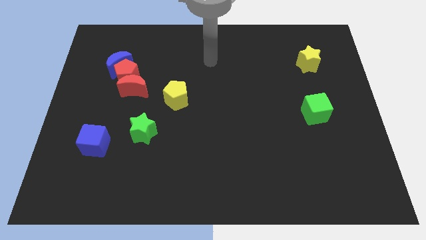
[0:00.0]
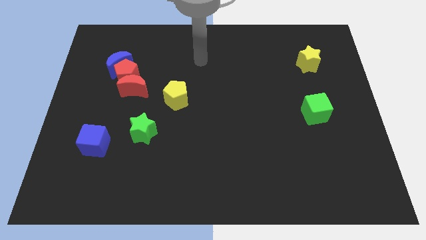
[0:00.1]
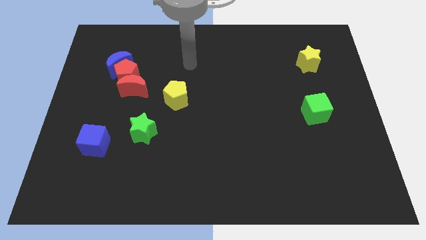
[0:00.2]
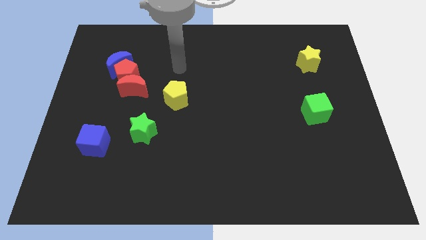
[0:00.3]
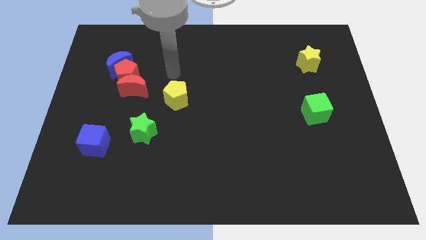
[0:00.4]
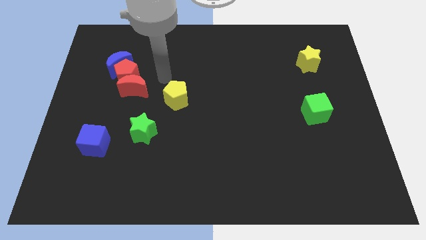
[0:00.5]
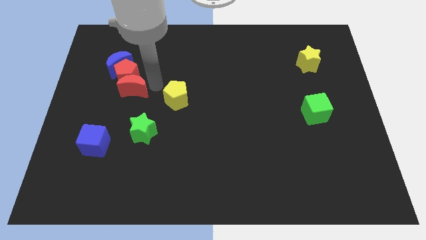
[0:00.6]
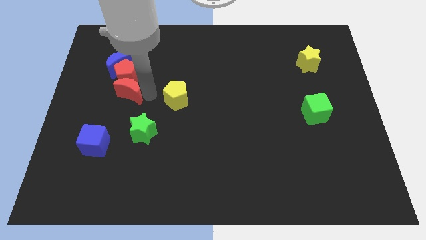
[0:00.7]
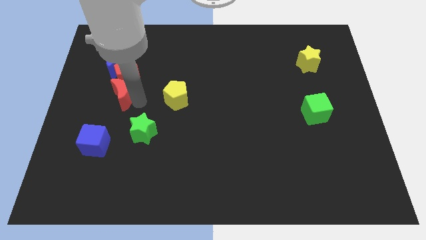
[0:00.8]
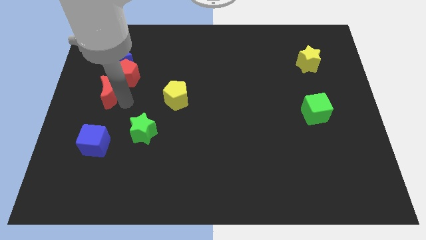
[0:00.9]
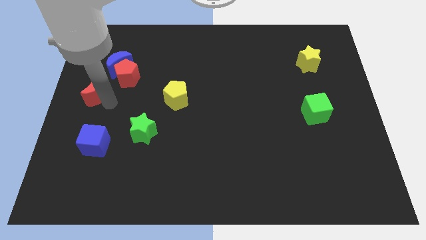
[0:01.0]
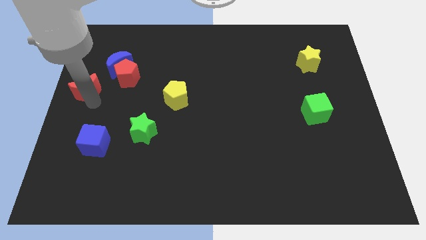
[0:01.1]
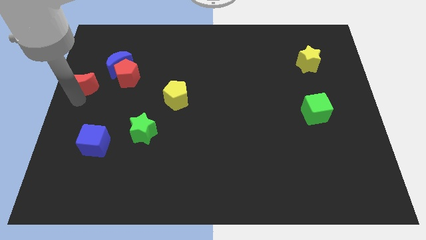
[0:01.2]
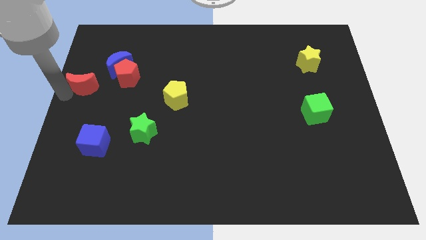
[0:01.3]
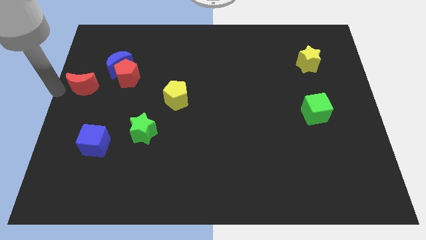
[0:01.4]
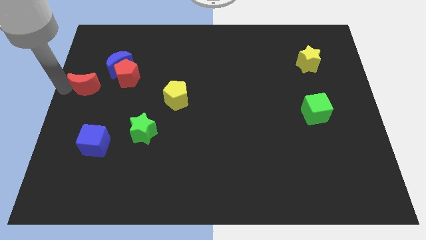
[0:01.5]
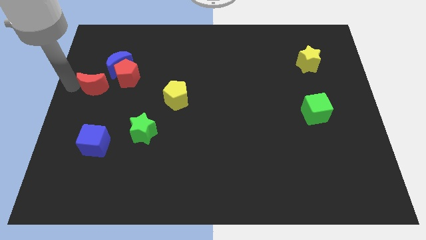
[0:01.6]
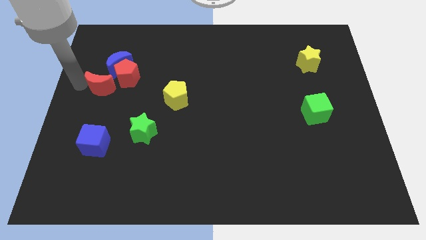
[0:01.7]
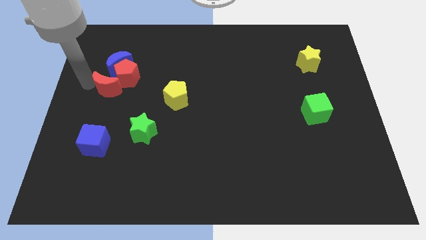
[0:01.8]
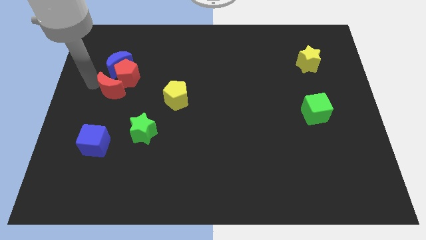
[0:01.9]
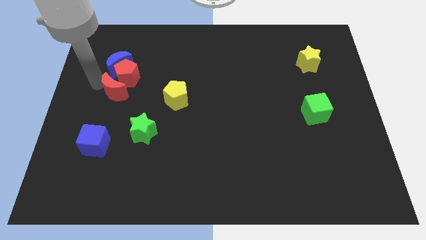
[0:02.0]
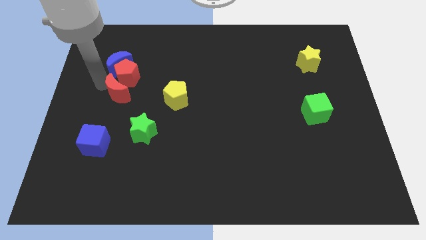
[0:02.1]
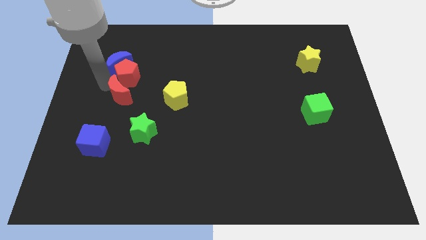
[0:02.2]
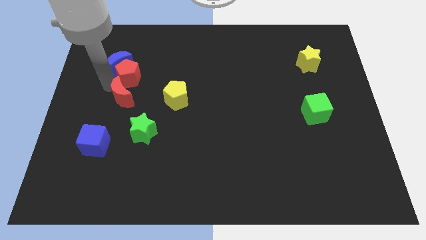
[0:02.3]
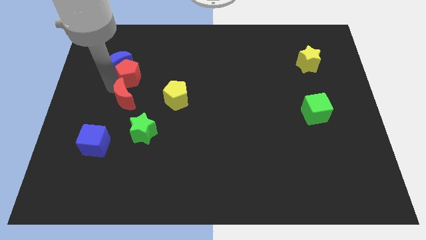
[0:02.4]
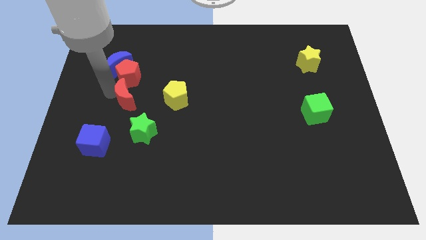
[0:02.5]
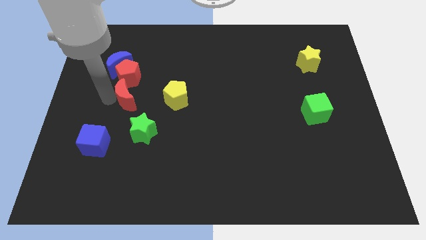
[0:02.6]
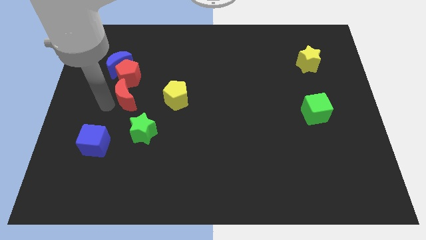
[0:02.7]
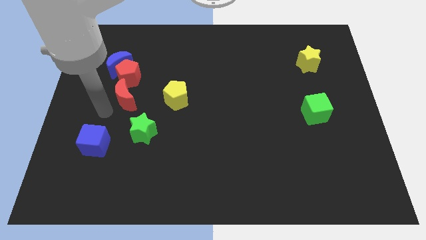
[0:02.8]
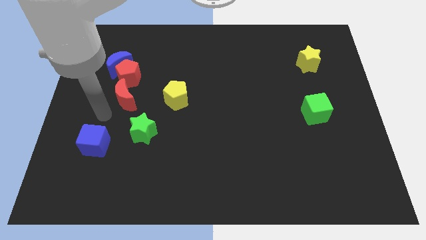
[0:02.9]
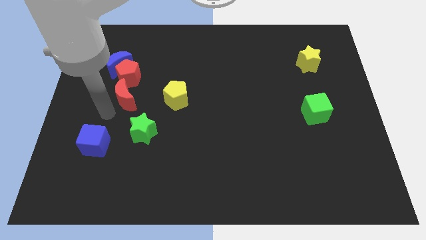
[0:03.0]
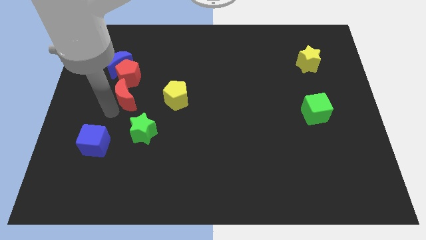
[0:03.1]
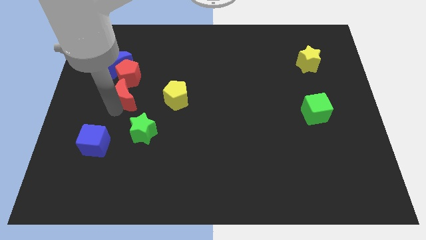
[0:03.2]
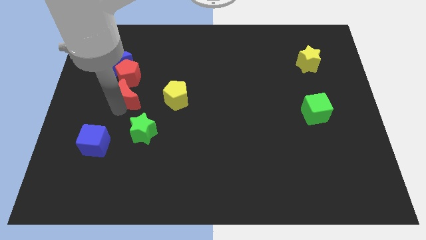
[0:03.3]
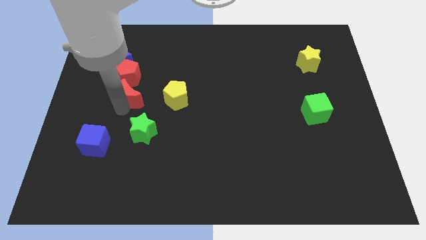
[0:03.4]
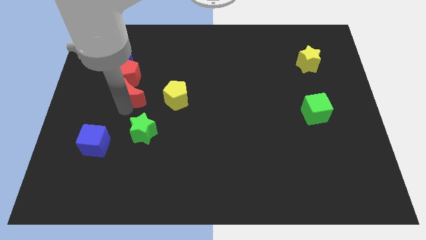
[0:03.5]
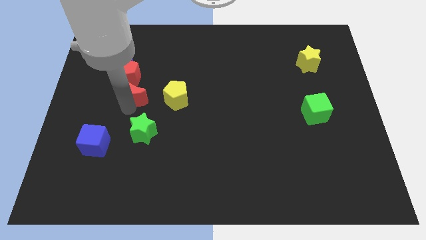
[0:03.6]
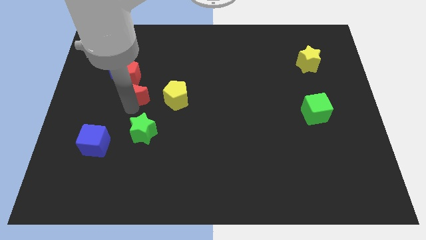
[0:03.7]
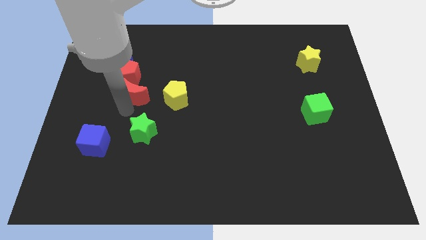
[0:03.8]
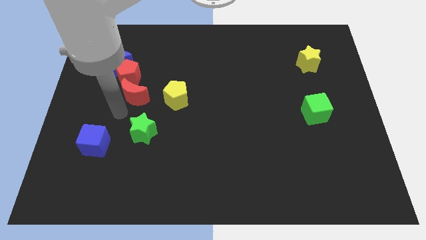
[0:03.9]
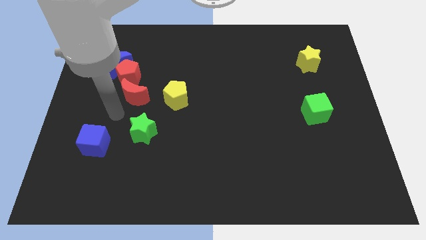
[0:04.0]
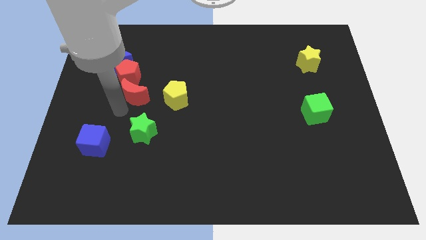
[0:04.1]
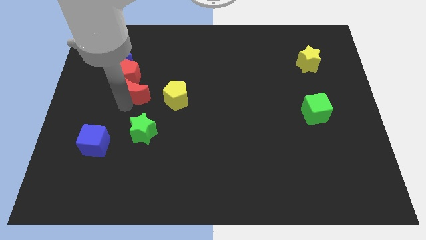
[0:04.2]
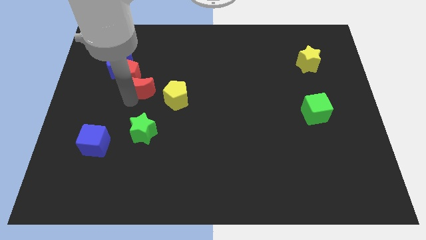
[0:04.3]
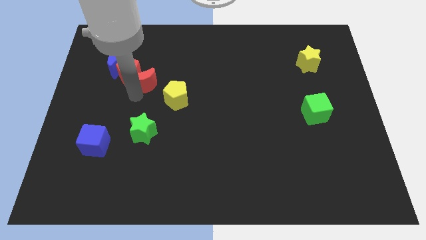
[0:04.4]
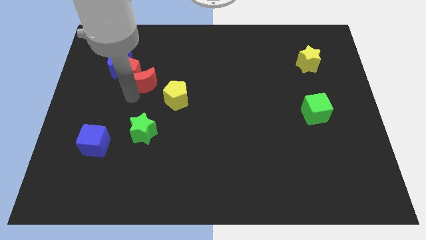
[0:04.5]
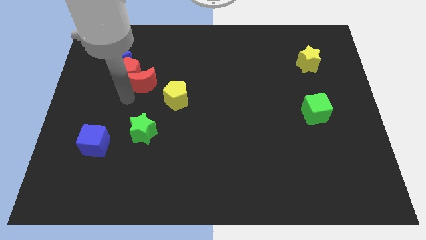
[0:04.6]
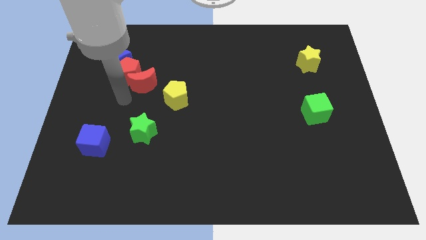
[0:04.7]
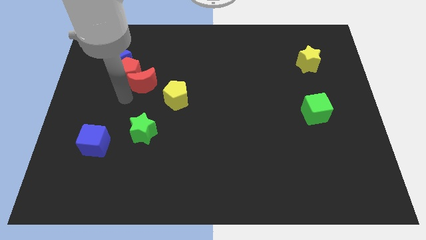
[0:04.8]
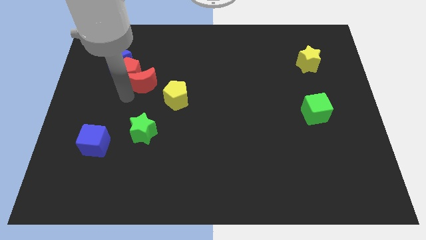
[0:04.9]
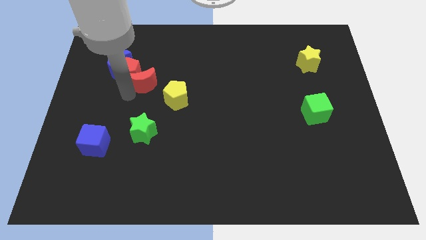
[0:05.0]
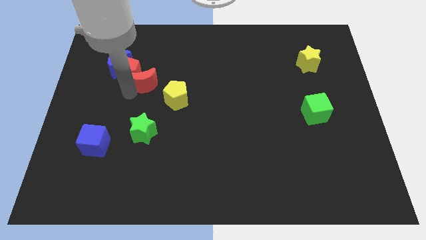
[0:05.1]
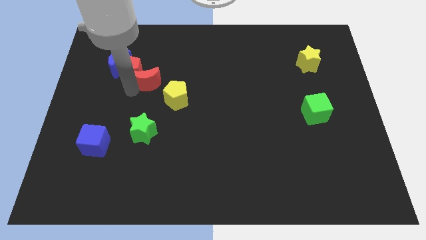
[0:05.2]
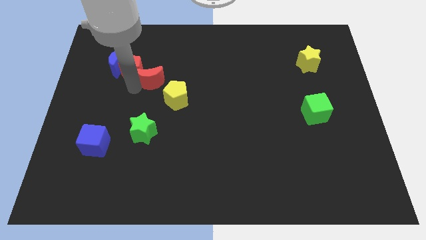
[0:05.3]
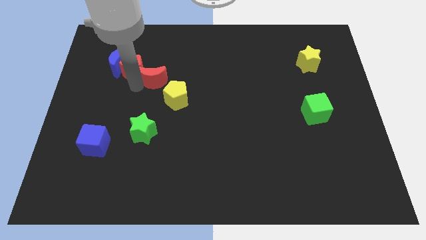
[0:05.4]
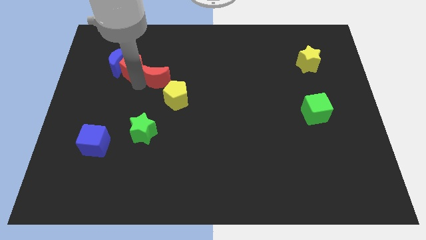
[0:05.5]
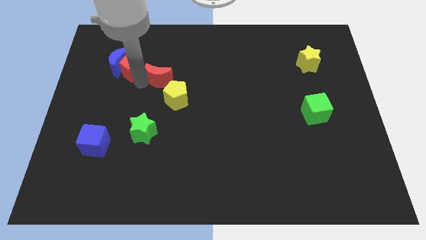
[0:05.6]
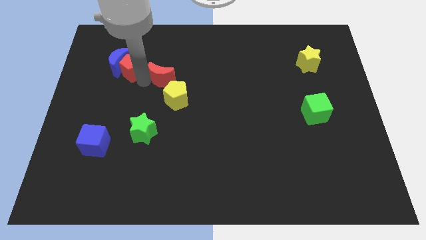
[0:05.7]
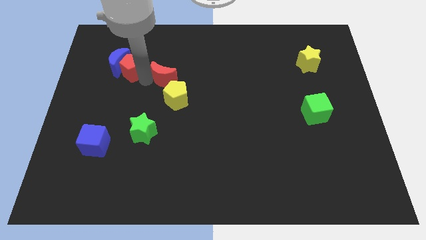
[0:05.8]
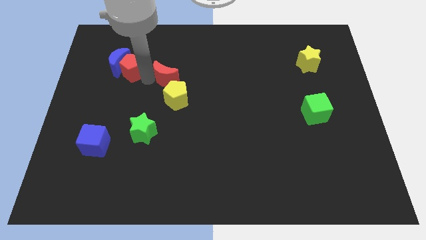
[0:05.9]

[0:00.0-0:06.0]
move the red moon to the right somewhat

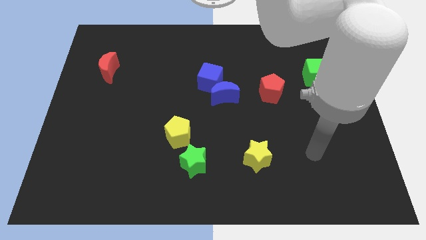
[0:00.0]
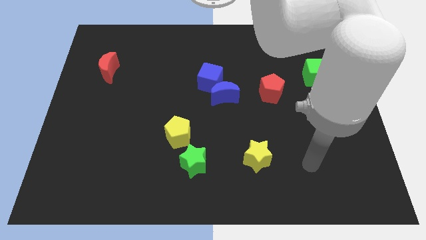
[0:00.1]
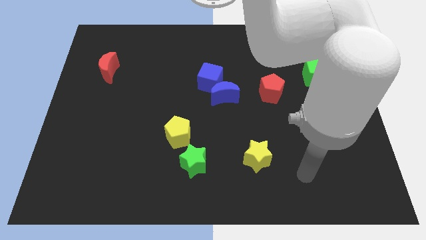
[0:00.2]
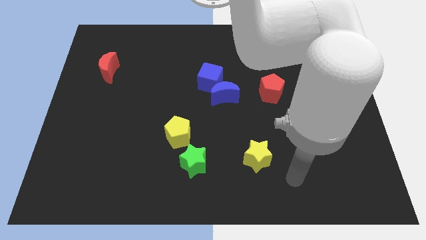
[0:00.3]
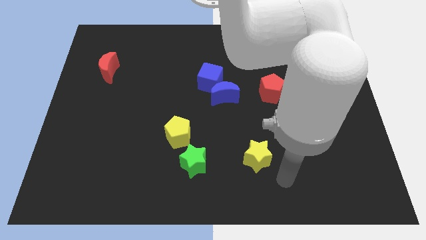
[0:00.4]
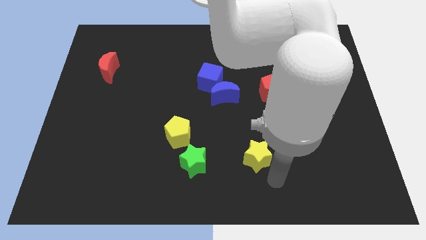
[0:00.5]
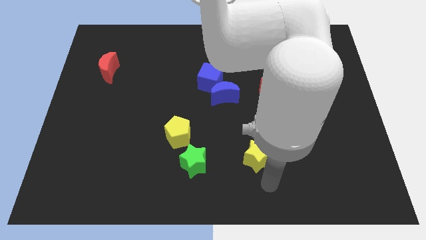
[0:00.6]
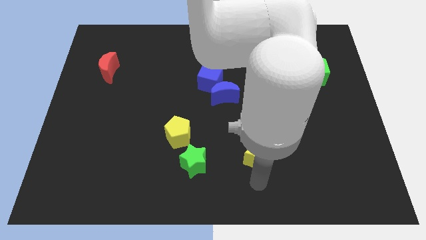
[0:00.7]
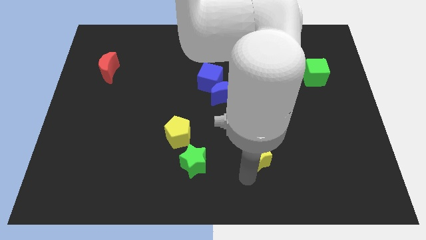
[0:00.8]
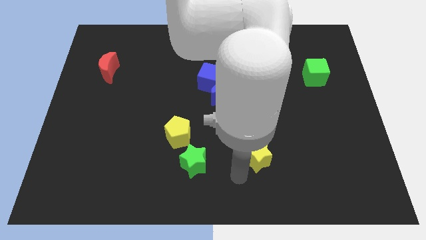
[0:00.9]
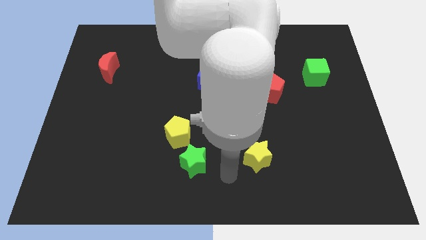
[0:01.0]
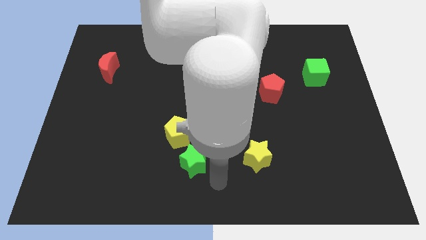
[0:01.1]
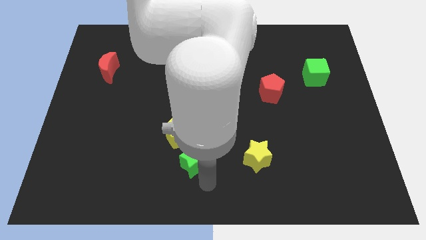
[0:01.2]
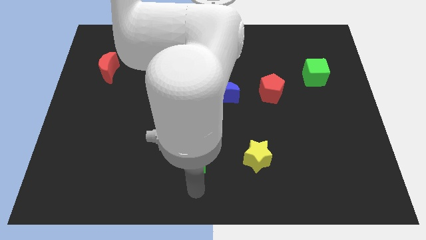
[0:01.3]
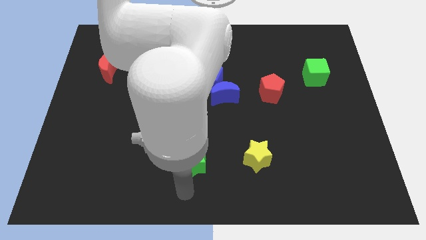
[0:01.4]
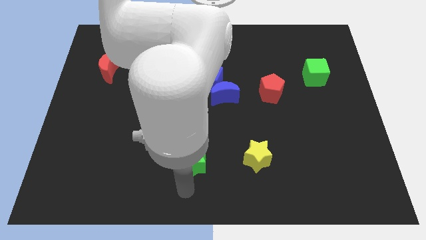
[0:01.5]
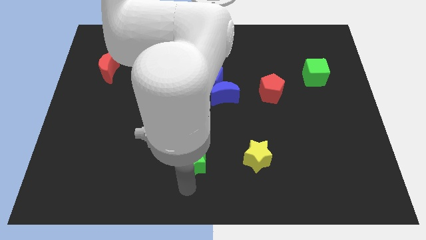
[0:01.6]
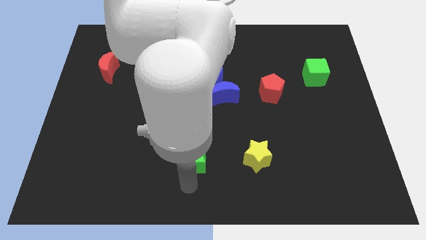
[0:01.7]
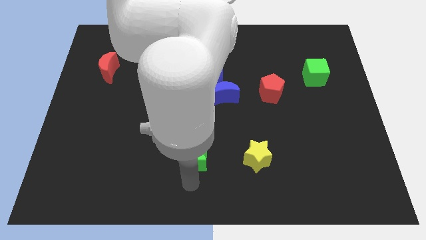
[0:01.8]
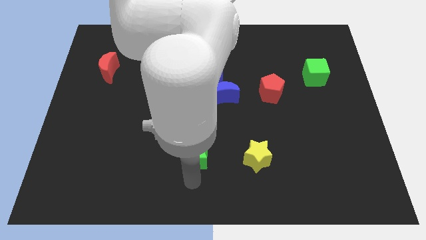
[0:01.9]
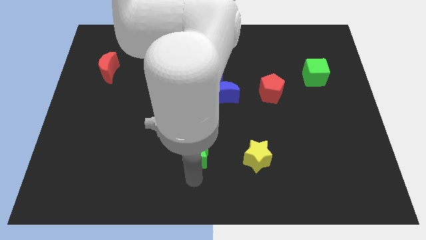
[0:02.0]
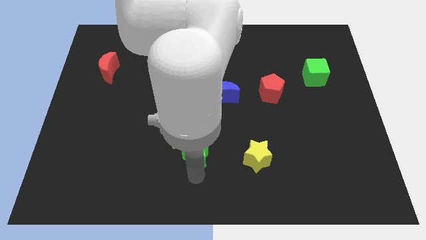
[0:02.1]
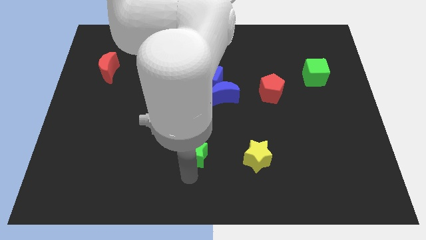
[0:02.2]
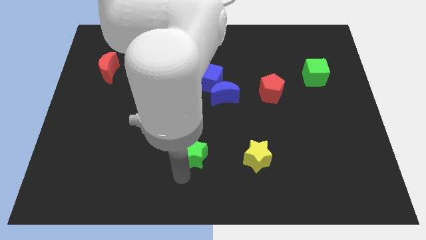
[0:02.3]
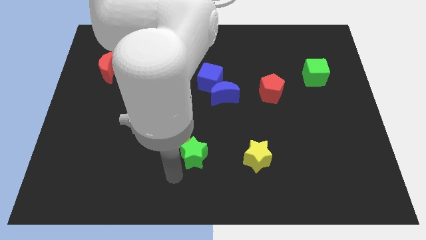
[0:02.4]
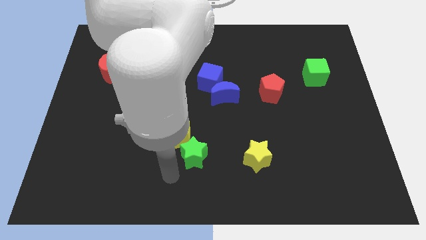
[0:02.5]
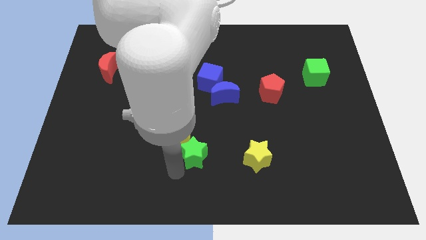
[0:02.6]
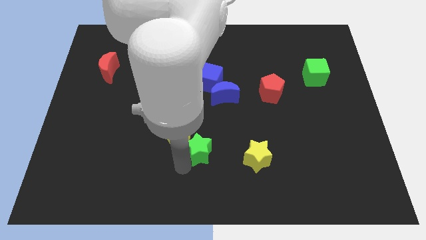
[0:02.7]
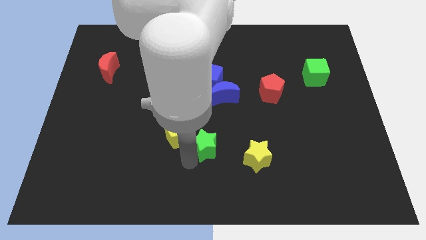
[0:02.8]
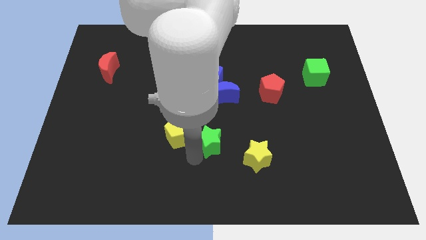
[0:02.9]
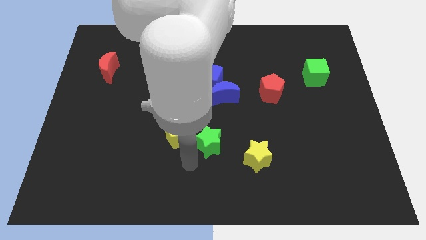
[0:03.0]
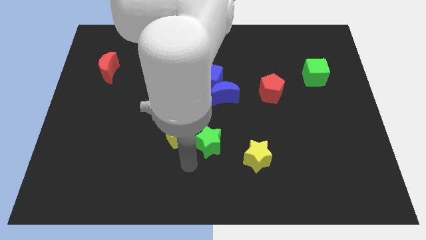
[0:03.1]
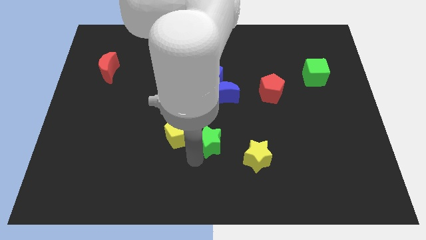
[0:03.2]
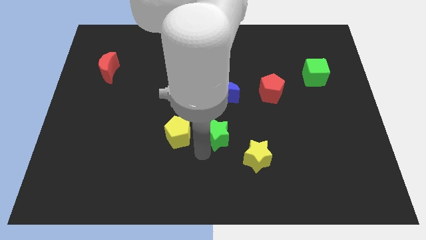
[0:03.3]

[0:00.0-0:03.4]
slightly slide the green star up and right
